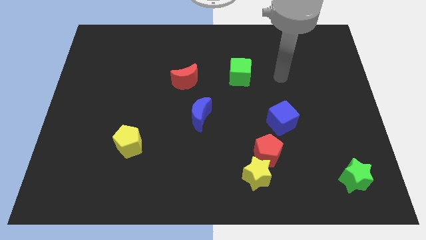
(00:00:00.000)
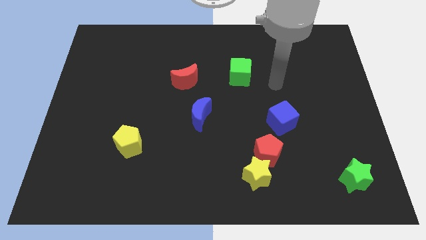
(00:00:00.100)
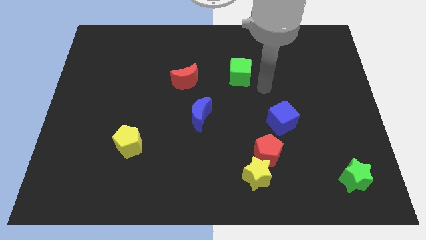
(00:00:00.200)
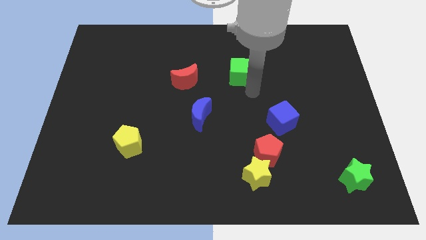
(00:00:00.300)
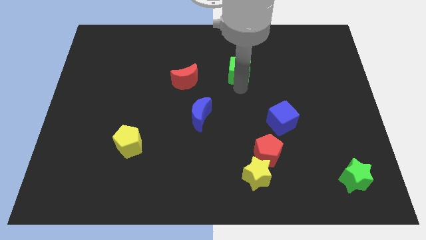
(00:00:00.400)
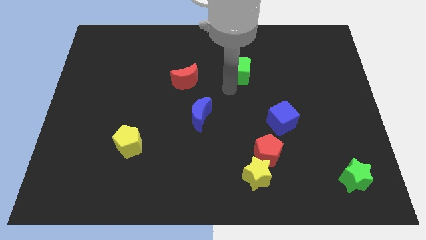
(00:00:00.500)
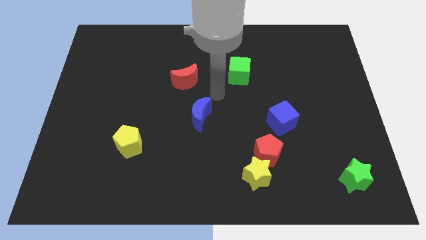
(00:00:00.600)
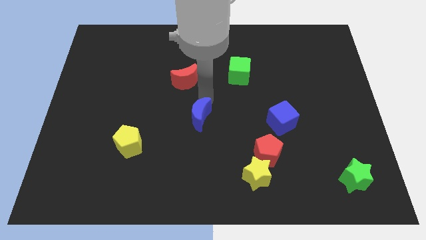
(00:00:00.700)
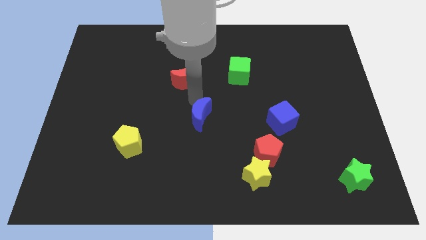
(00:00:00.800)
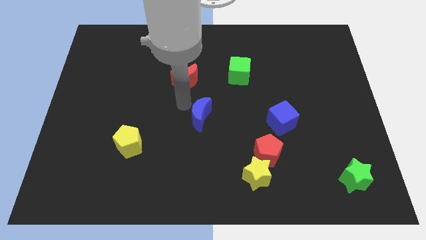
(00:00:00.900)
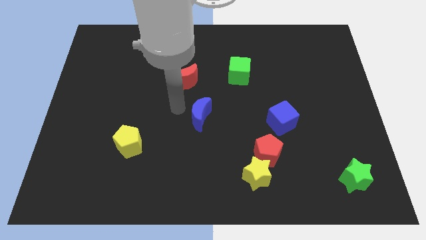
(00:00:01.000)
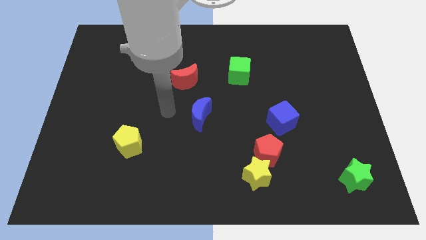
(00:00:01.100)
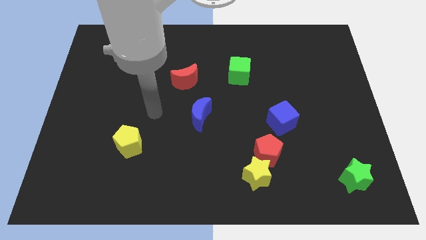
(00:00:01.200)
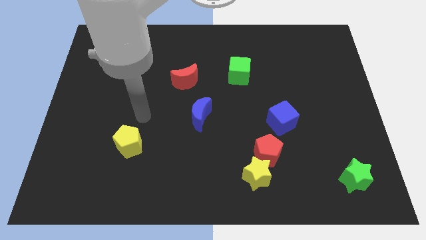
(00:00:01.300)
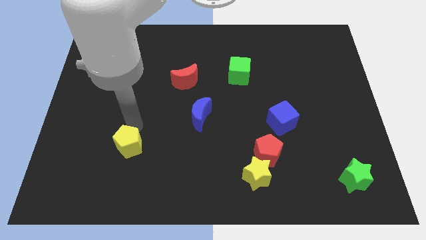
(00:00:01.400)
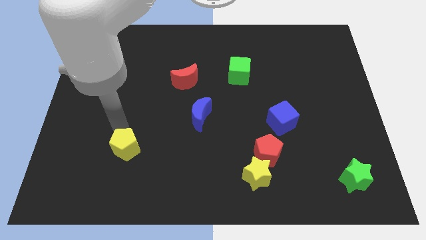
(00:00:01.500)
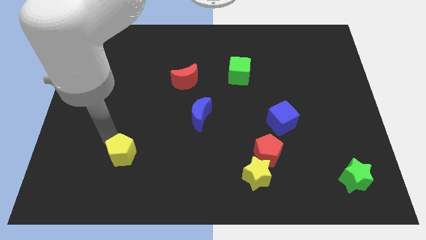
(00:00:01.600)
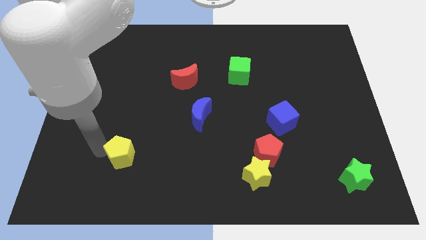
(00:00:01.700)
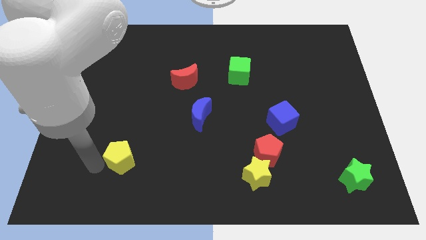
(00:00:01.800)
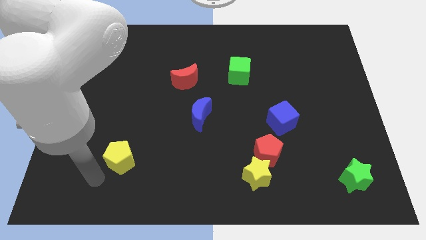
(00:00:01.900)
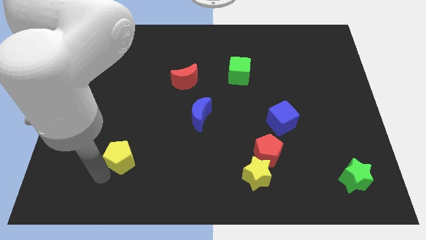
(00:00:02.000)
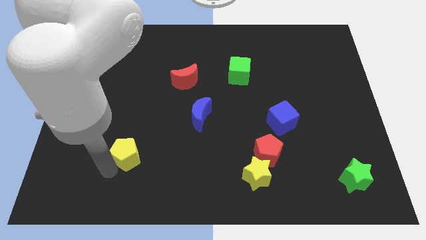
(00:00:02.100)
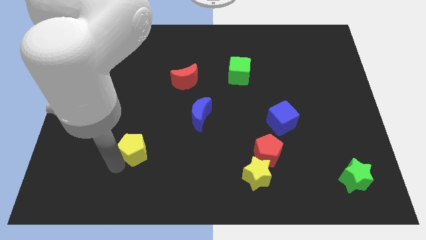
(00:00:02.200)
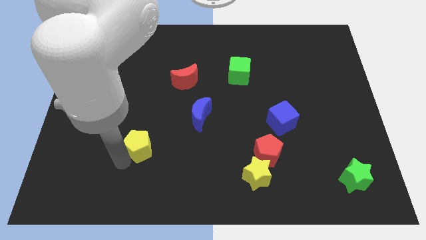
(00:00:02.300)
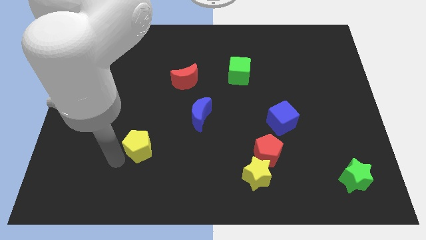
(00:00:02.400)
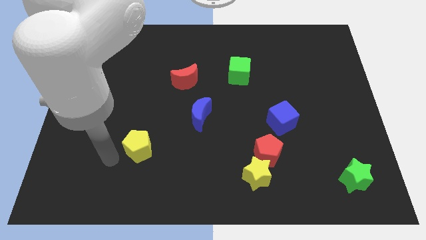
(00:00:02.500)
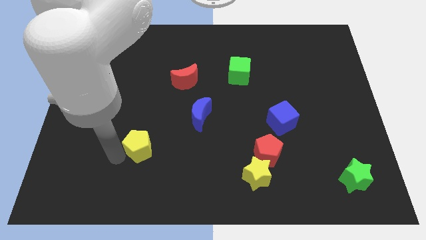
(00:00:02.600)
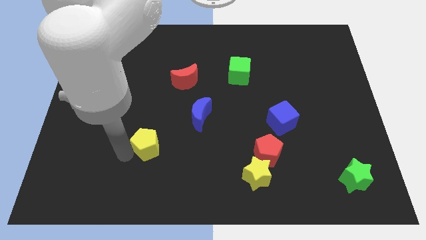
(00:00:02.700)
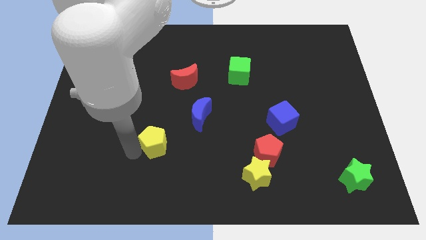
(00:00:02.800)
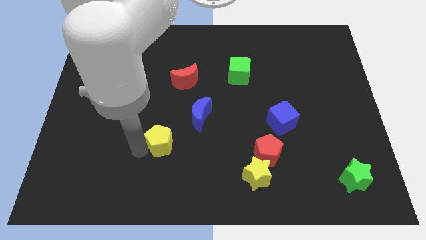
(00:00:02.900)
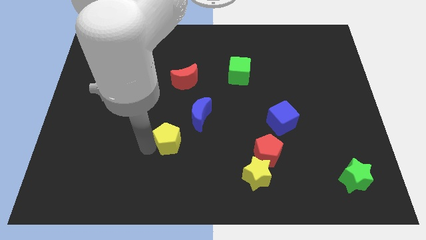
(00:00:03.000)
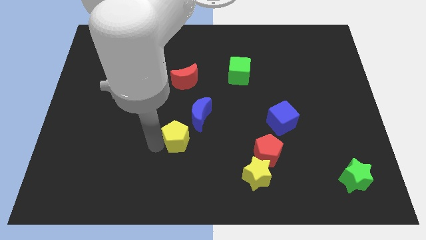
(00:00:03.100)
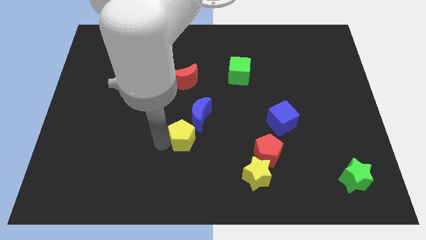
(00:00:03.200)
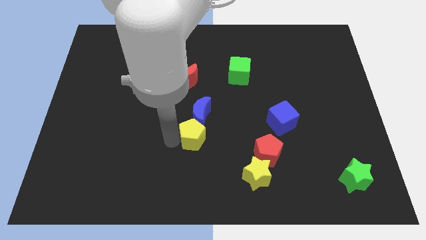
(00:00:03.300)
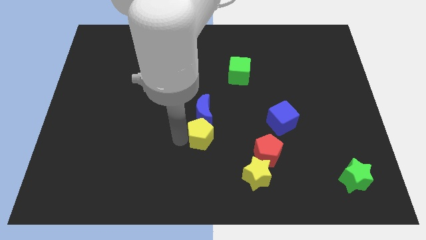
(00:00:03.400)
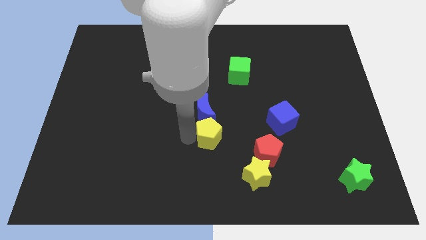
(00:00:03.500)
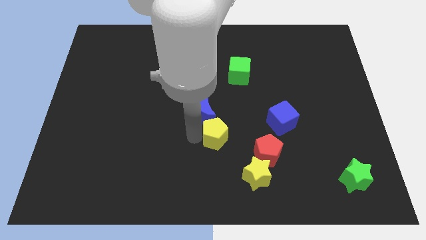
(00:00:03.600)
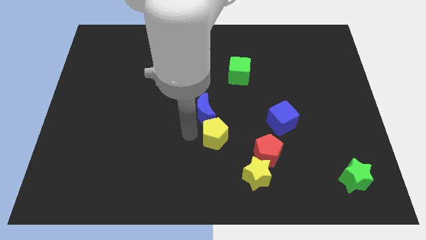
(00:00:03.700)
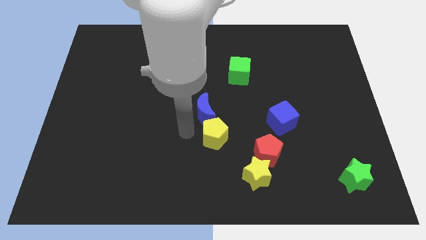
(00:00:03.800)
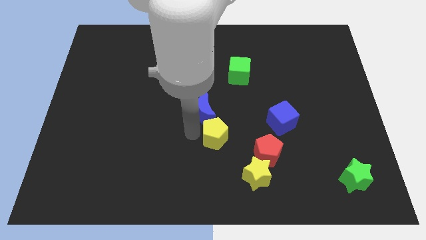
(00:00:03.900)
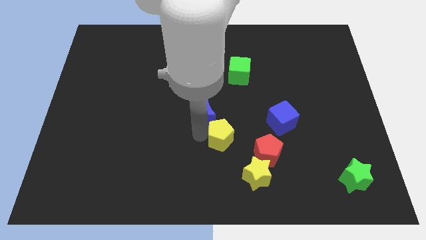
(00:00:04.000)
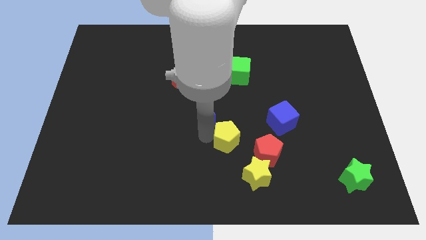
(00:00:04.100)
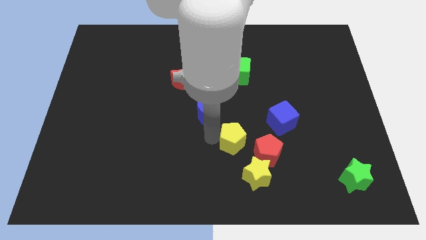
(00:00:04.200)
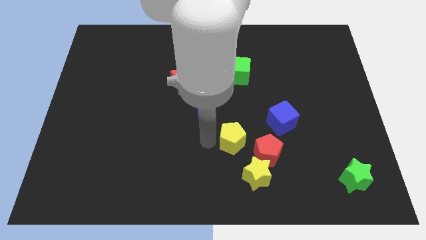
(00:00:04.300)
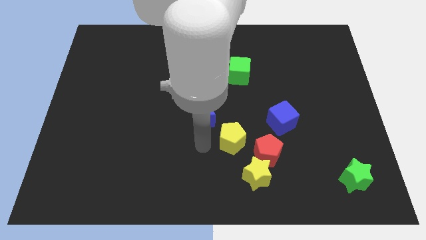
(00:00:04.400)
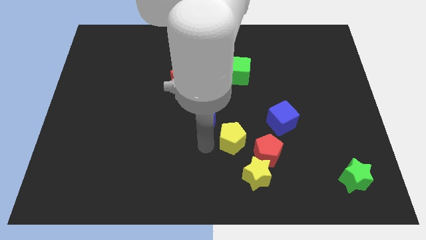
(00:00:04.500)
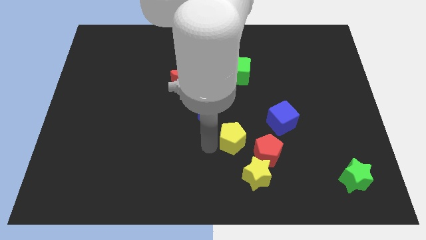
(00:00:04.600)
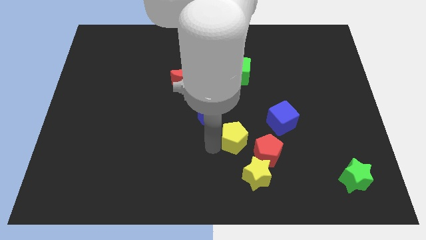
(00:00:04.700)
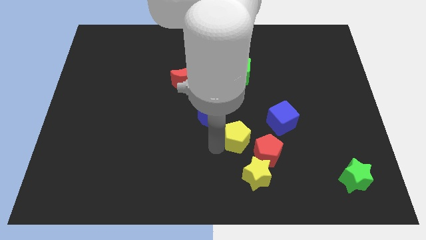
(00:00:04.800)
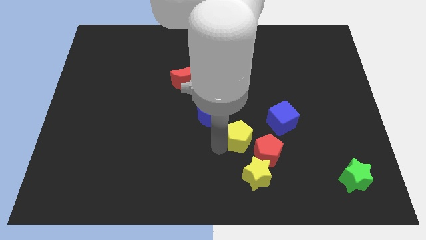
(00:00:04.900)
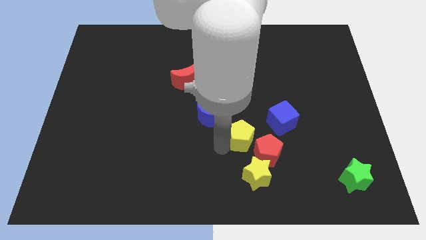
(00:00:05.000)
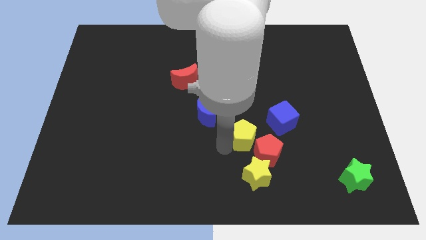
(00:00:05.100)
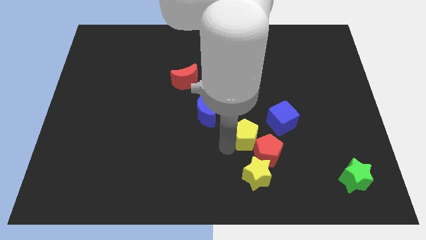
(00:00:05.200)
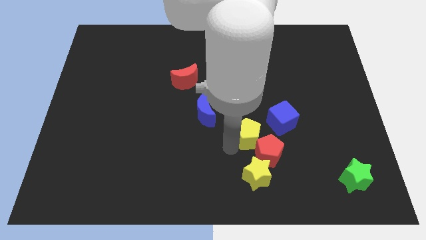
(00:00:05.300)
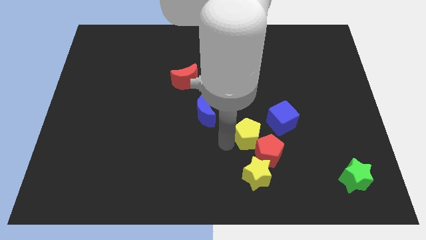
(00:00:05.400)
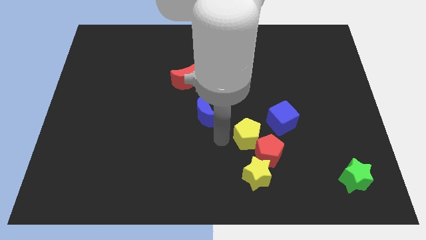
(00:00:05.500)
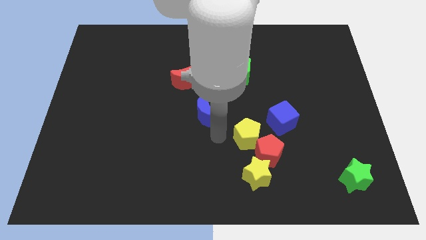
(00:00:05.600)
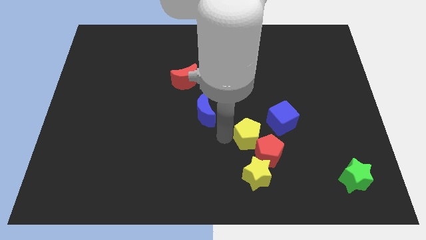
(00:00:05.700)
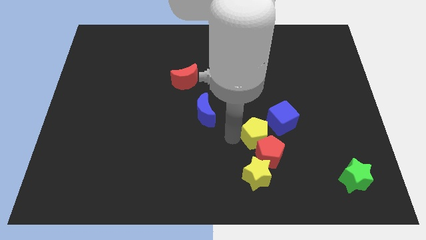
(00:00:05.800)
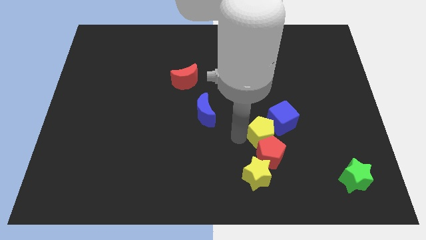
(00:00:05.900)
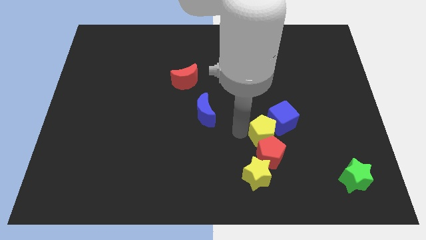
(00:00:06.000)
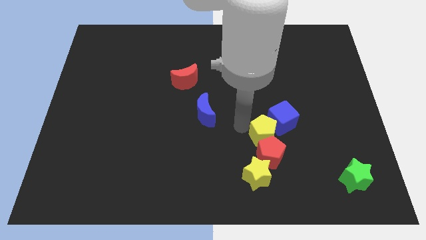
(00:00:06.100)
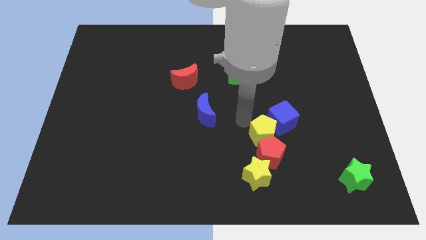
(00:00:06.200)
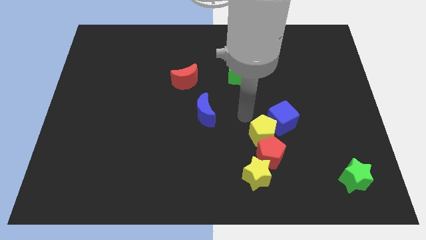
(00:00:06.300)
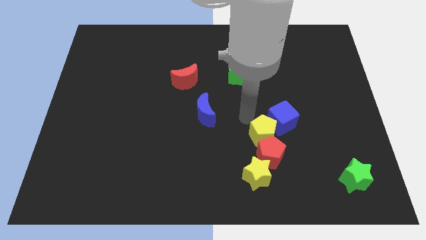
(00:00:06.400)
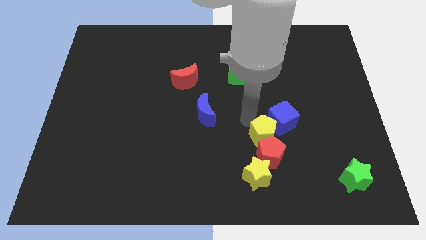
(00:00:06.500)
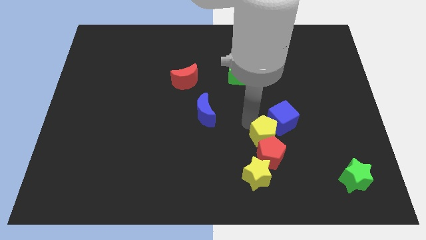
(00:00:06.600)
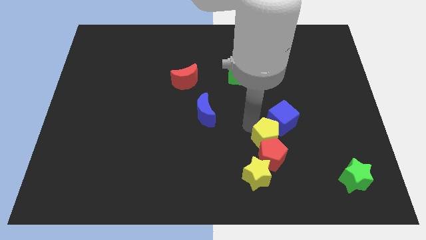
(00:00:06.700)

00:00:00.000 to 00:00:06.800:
push the yellow pentagon diagonally up and to the right of the yellow star

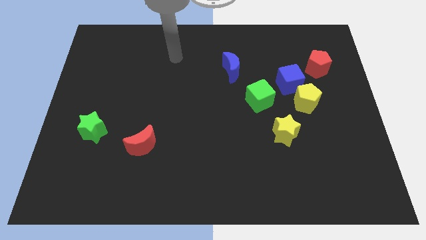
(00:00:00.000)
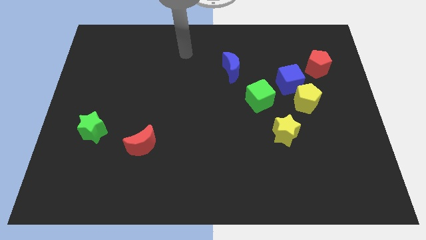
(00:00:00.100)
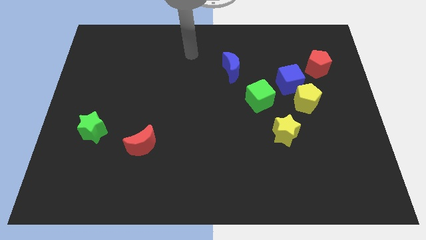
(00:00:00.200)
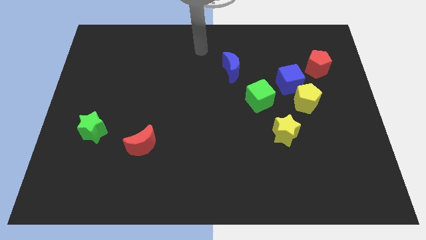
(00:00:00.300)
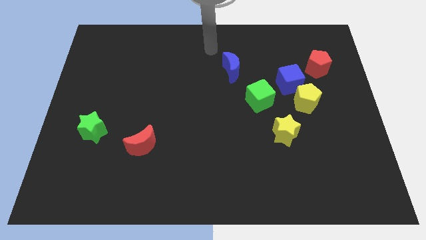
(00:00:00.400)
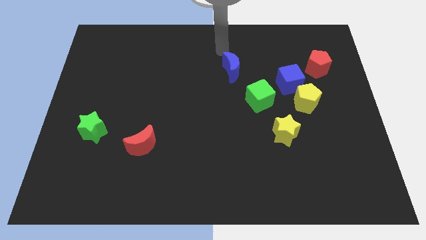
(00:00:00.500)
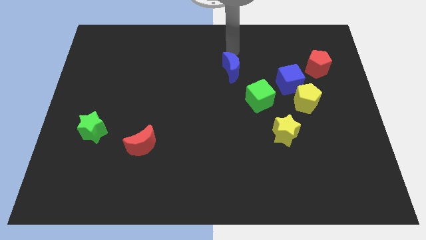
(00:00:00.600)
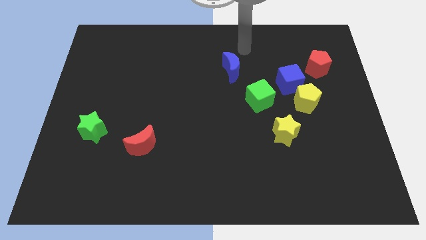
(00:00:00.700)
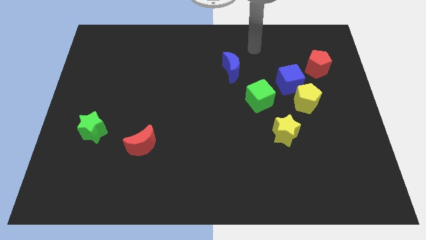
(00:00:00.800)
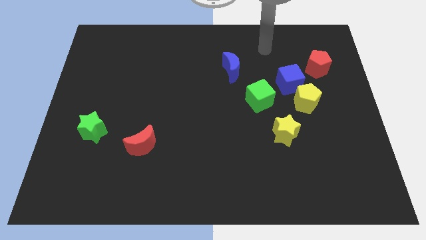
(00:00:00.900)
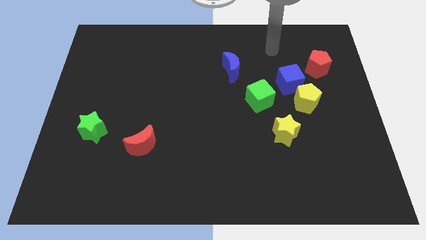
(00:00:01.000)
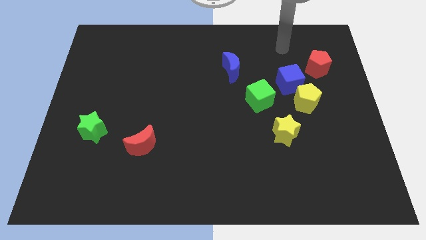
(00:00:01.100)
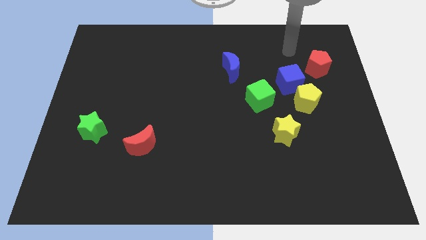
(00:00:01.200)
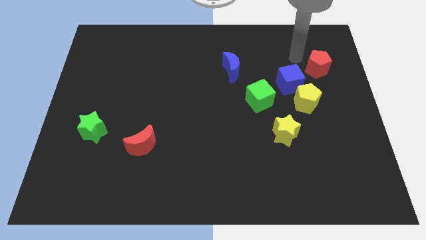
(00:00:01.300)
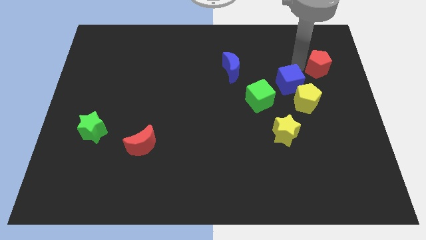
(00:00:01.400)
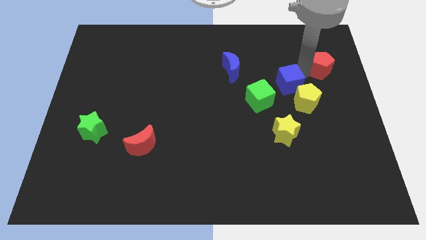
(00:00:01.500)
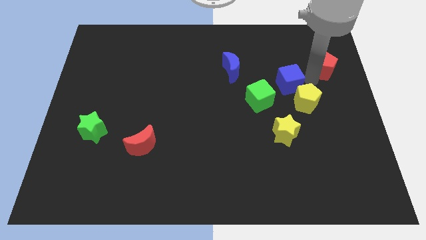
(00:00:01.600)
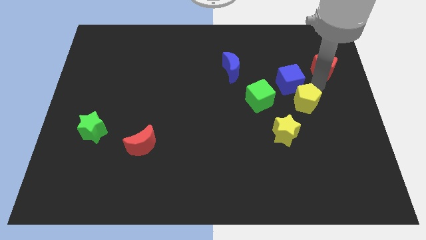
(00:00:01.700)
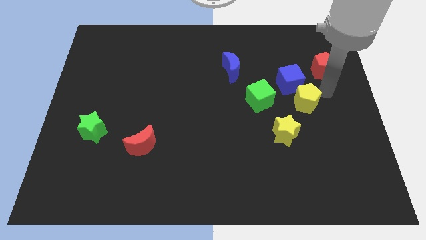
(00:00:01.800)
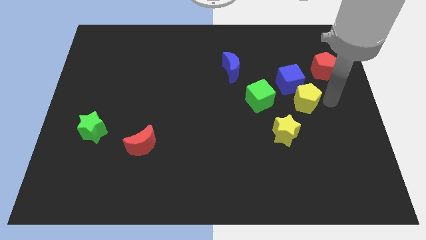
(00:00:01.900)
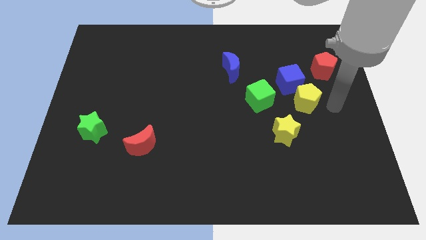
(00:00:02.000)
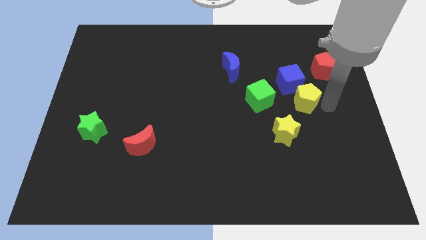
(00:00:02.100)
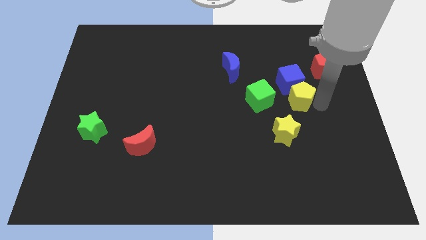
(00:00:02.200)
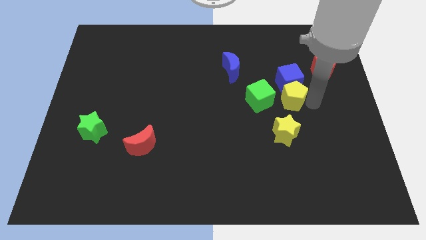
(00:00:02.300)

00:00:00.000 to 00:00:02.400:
slide the yellow pentagon above the yellow star
